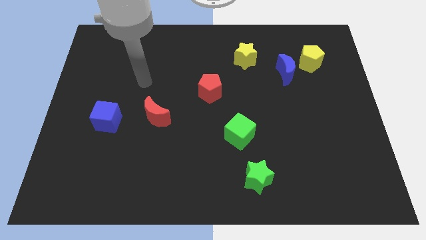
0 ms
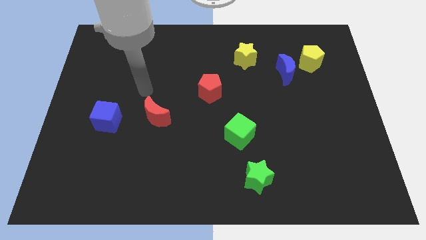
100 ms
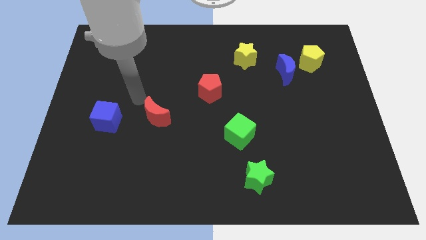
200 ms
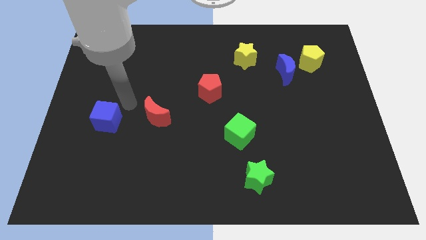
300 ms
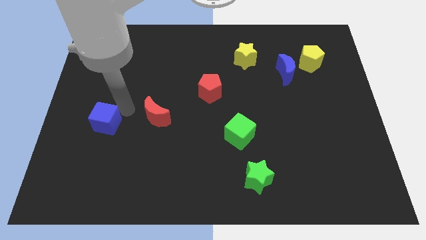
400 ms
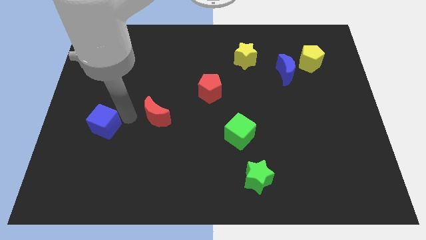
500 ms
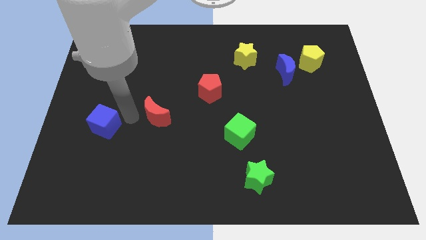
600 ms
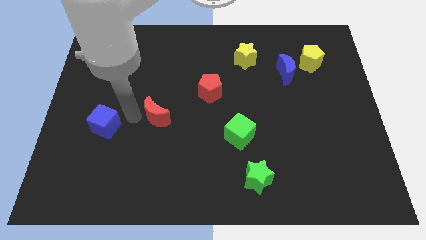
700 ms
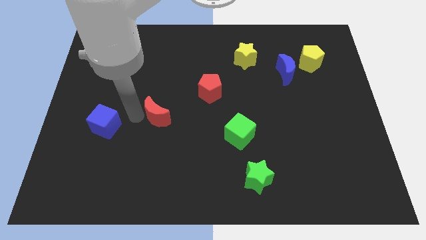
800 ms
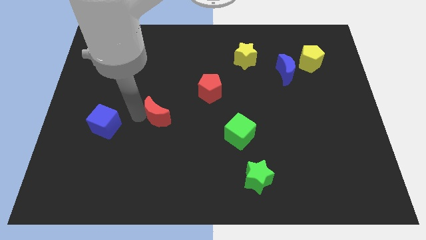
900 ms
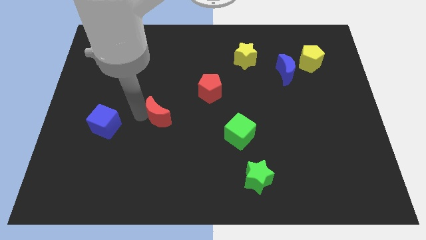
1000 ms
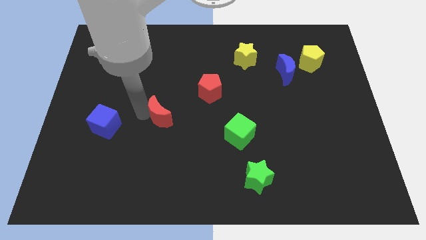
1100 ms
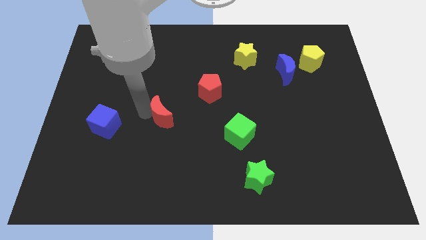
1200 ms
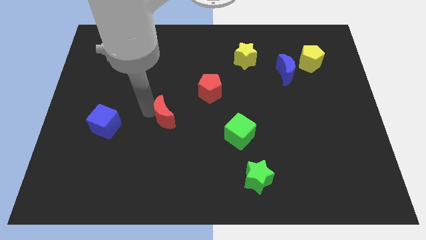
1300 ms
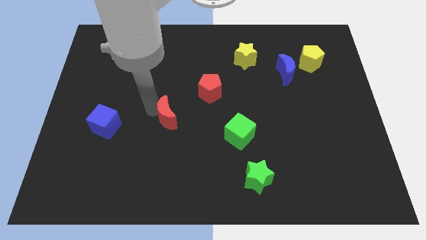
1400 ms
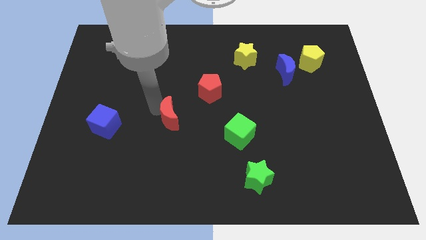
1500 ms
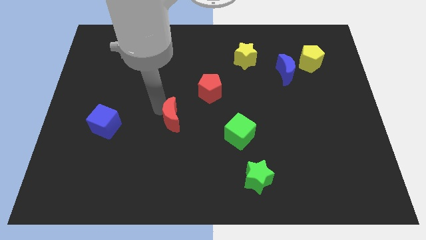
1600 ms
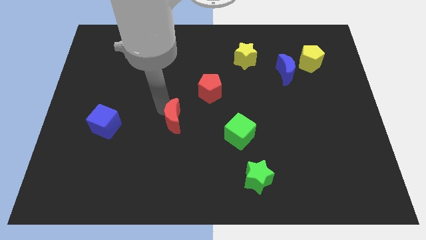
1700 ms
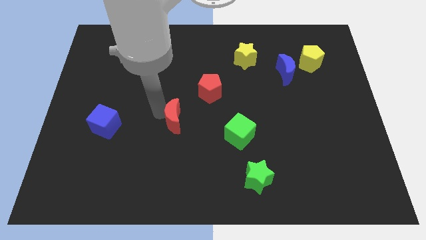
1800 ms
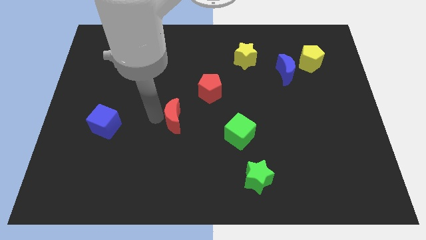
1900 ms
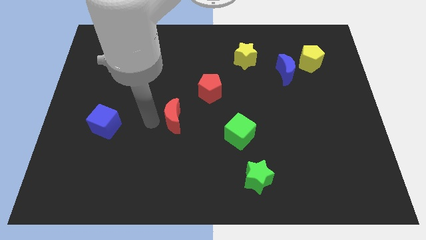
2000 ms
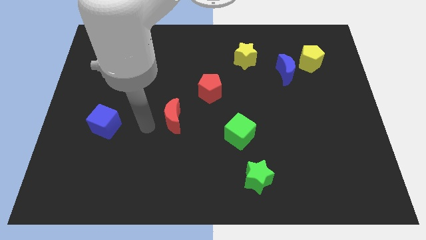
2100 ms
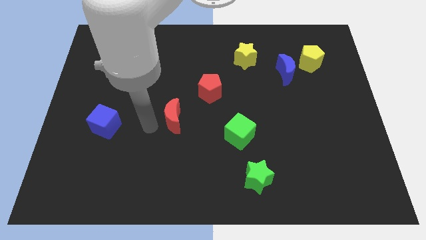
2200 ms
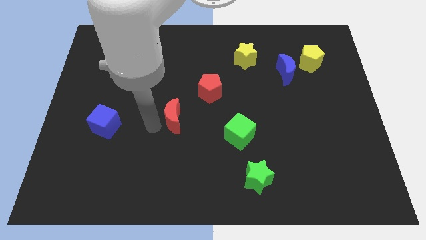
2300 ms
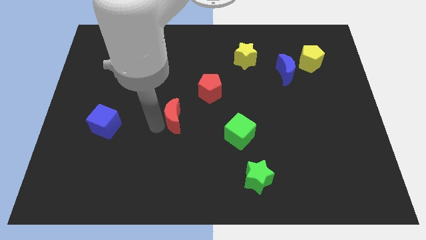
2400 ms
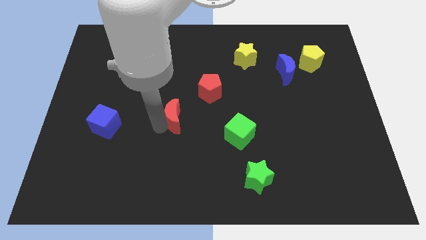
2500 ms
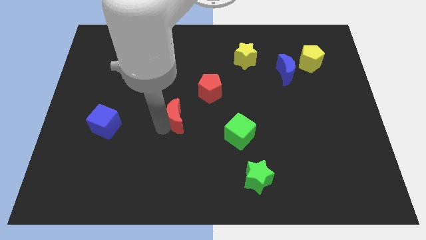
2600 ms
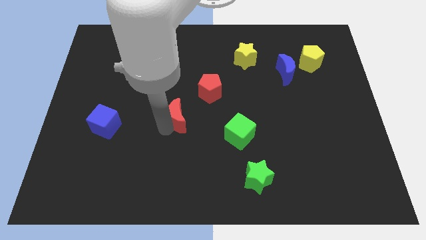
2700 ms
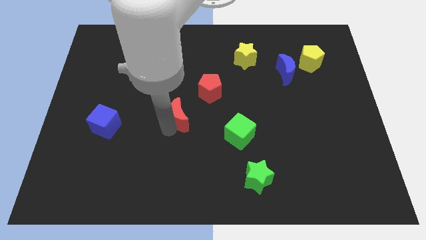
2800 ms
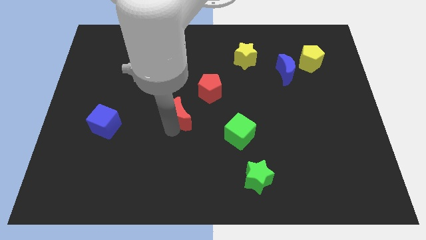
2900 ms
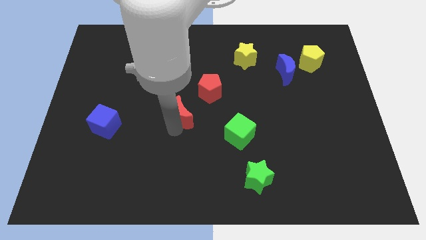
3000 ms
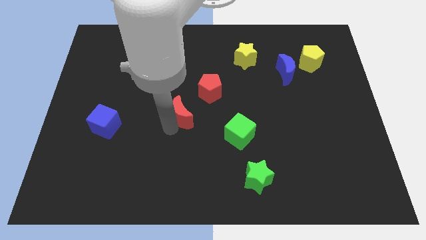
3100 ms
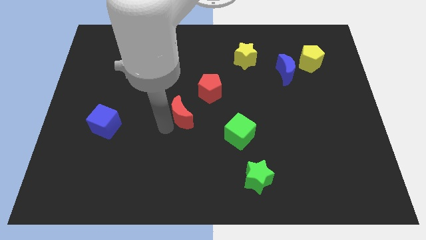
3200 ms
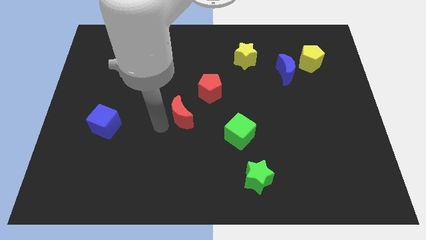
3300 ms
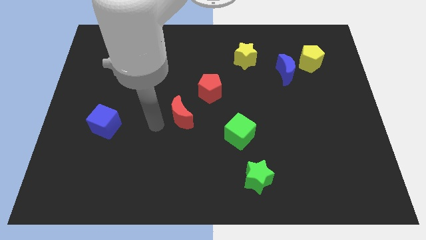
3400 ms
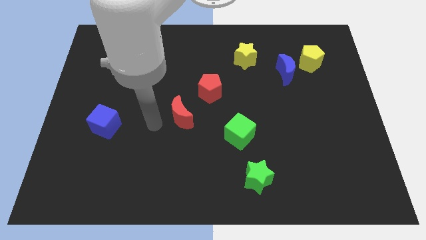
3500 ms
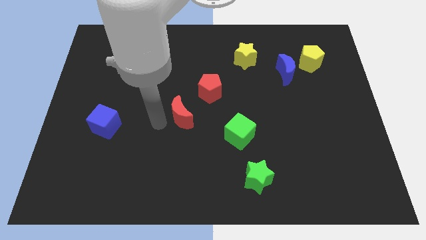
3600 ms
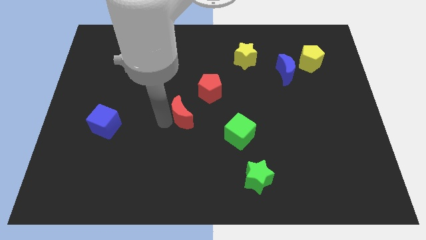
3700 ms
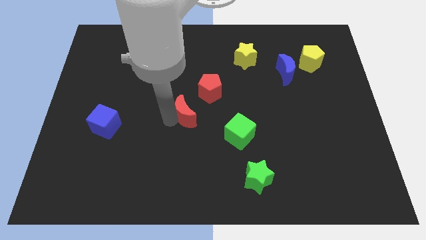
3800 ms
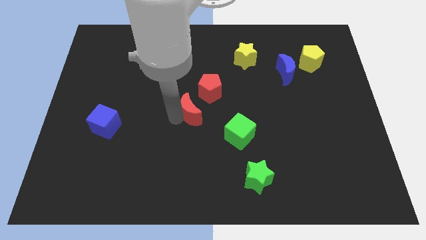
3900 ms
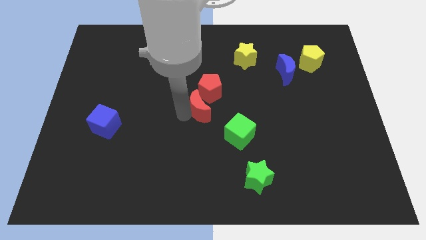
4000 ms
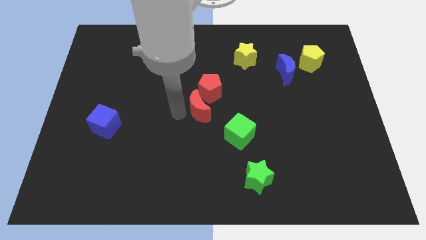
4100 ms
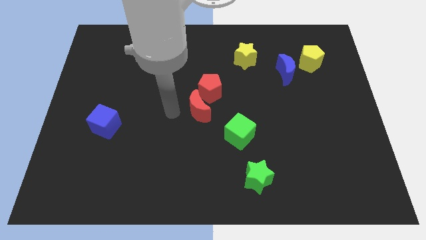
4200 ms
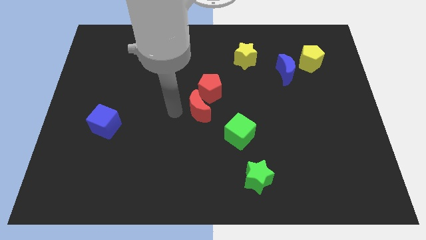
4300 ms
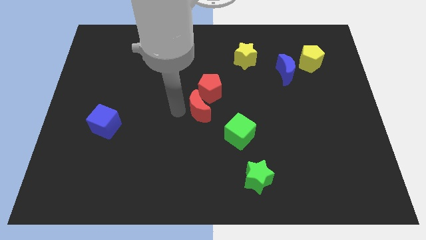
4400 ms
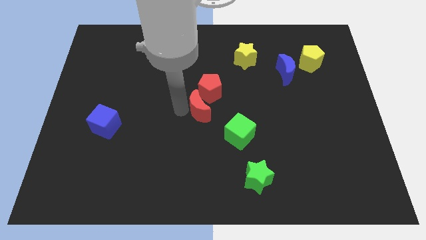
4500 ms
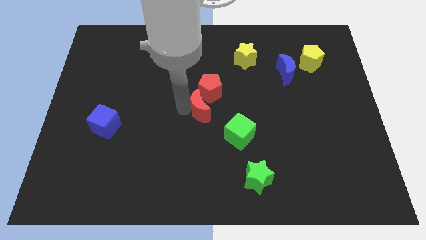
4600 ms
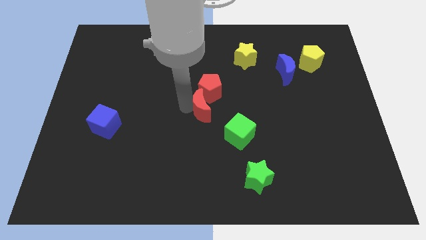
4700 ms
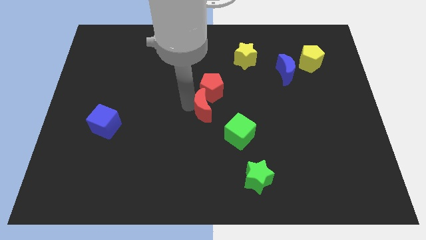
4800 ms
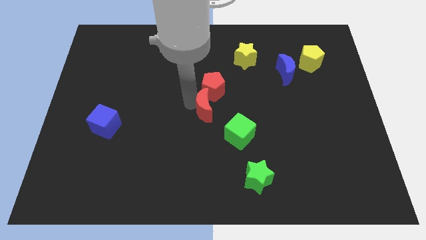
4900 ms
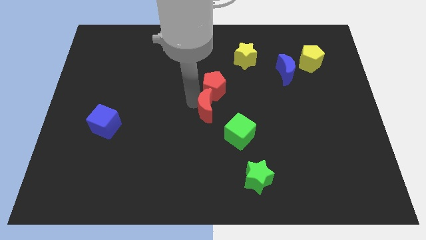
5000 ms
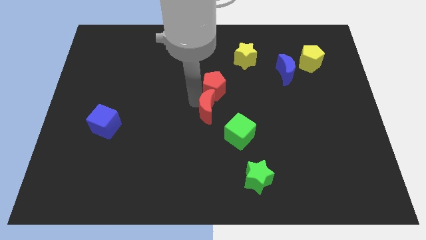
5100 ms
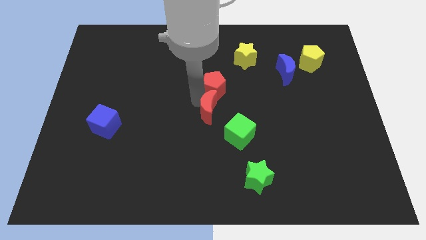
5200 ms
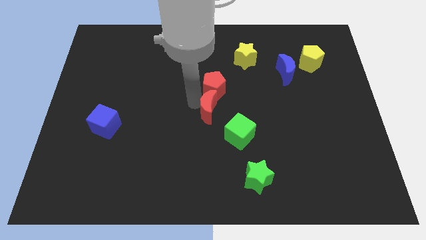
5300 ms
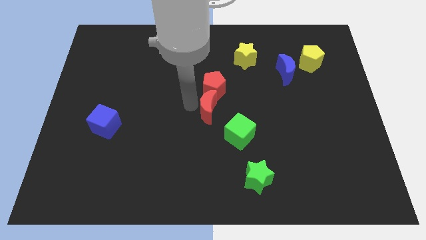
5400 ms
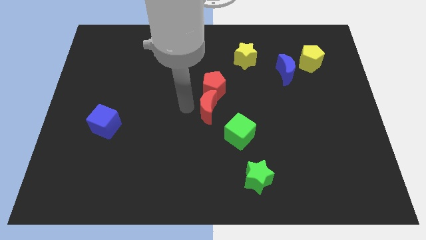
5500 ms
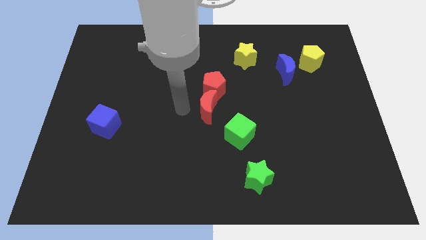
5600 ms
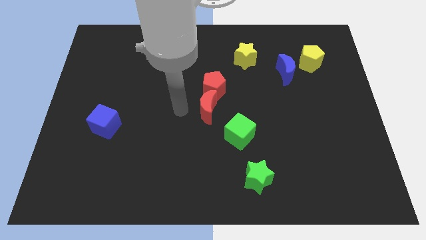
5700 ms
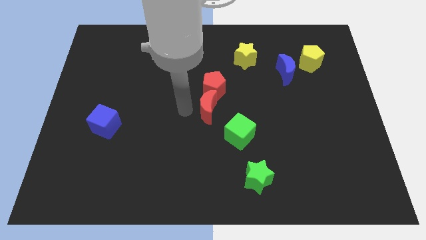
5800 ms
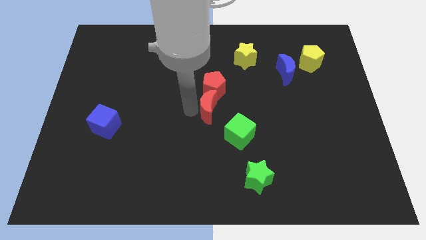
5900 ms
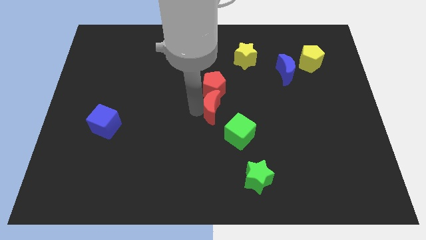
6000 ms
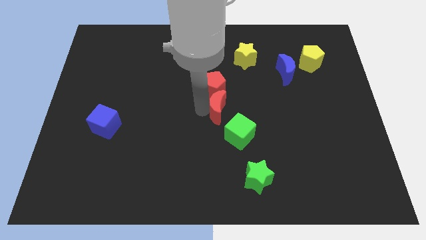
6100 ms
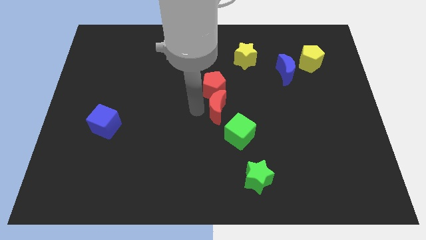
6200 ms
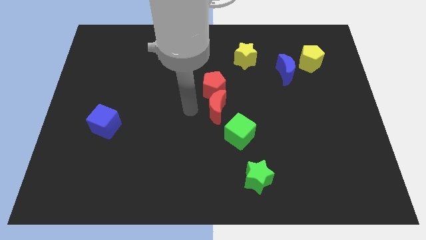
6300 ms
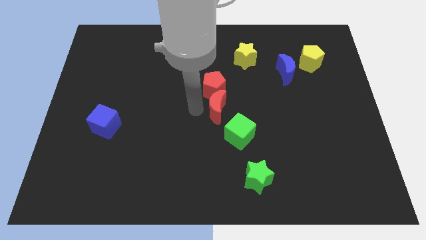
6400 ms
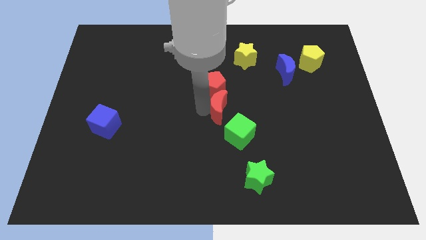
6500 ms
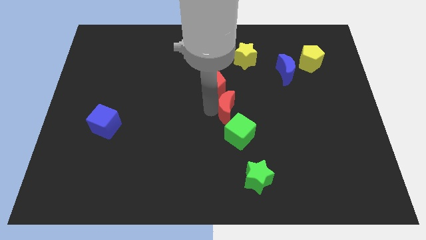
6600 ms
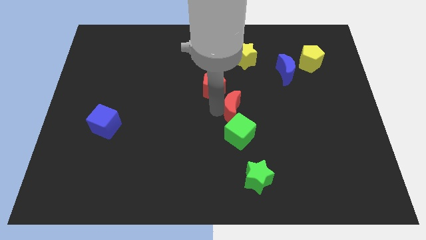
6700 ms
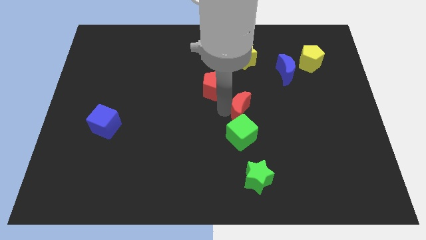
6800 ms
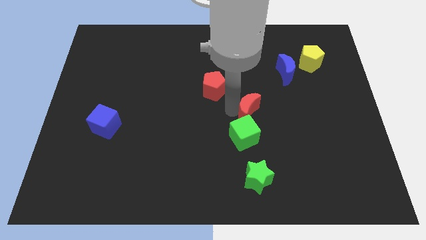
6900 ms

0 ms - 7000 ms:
push the red moon right

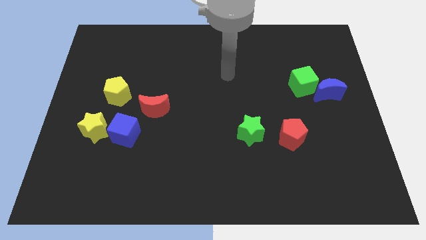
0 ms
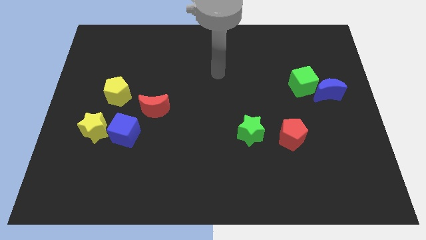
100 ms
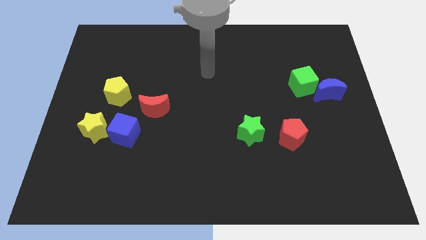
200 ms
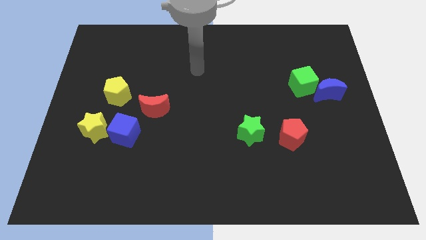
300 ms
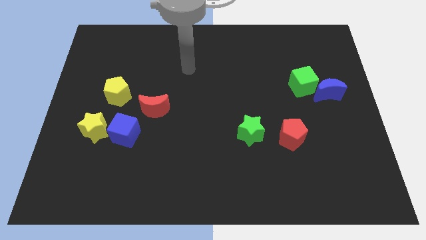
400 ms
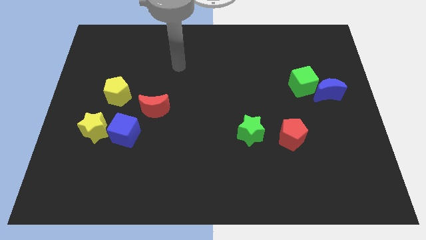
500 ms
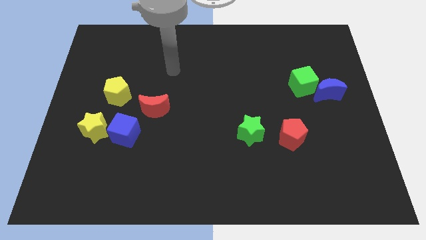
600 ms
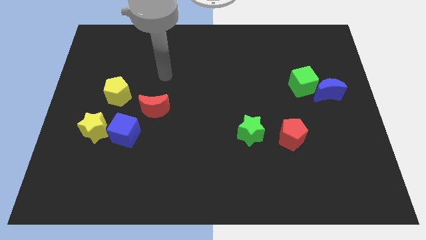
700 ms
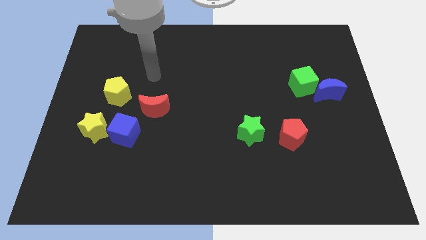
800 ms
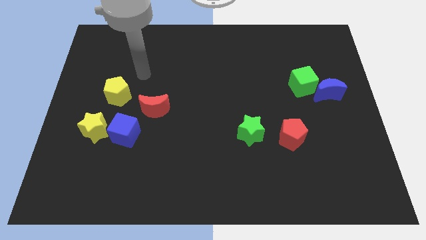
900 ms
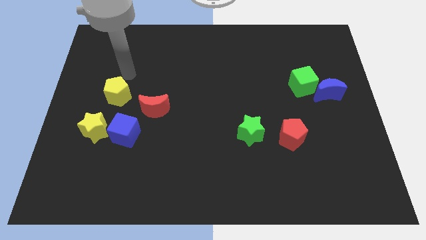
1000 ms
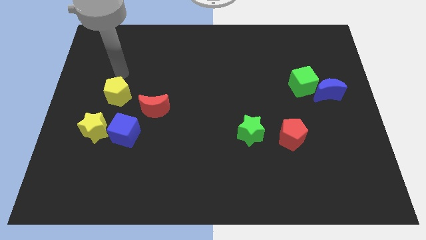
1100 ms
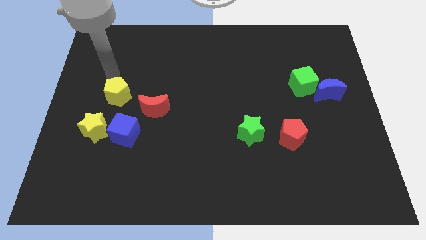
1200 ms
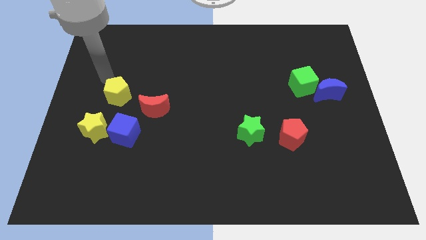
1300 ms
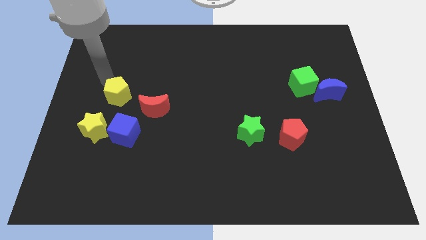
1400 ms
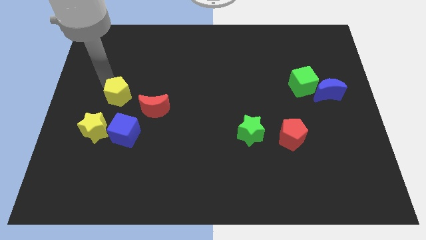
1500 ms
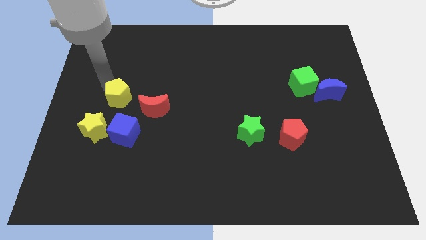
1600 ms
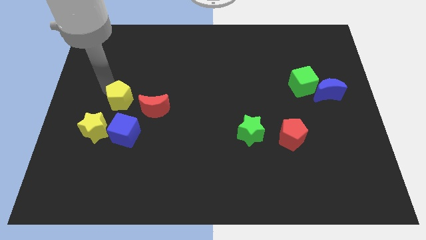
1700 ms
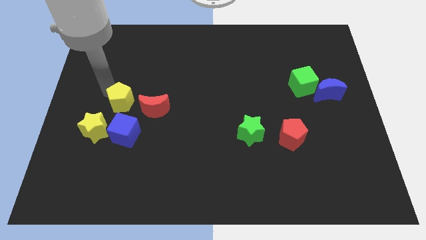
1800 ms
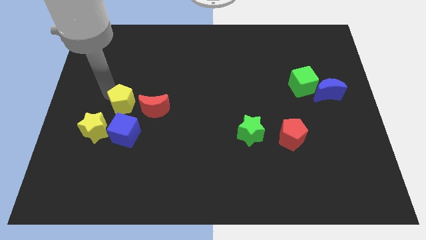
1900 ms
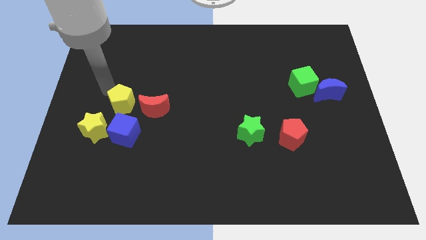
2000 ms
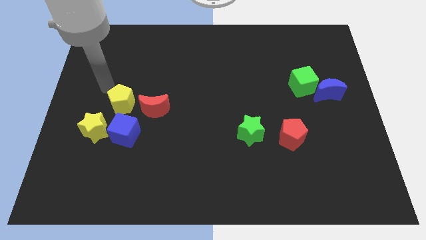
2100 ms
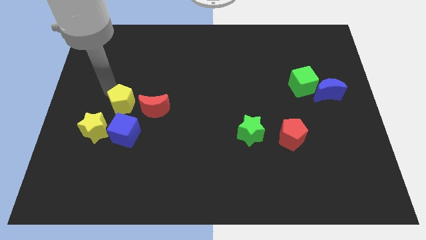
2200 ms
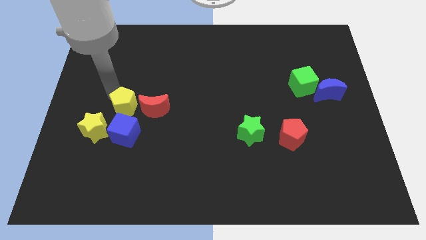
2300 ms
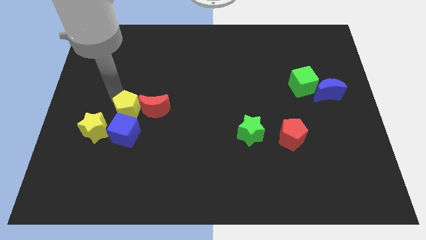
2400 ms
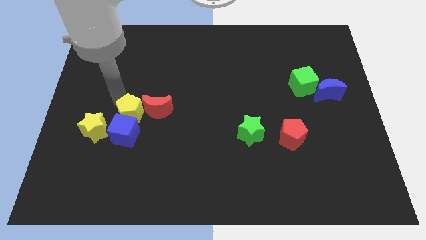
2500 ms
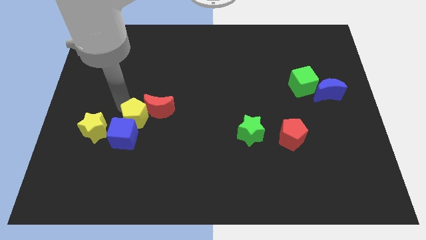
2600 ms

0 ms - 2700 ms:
slightly push the yellow pentagon downwards and right
